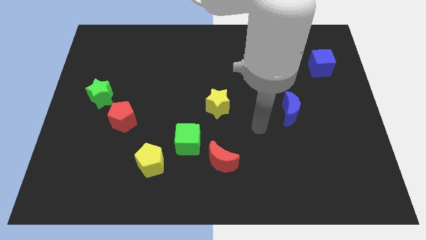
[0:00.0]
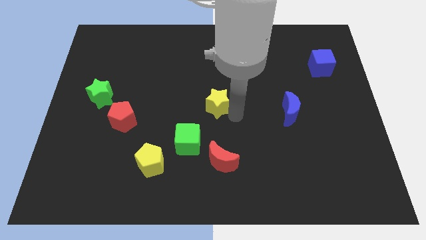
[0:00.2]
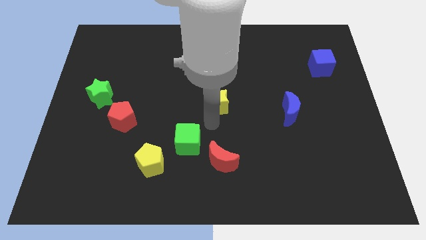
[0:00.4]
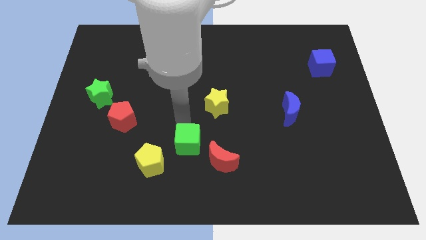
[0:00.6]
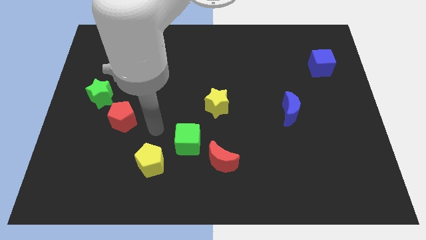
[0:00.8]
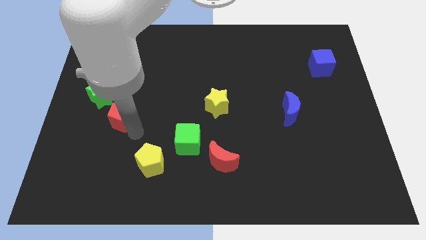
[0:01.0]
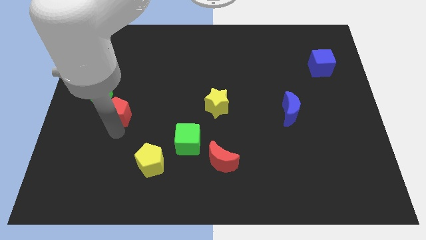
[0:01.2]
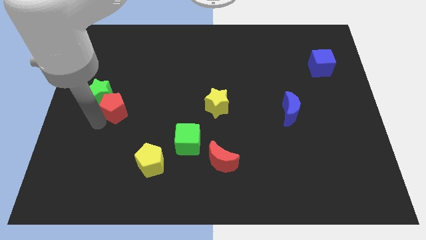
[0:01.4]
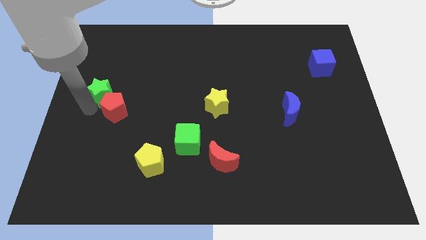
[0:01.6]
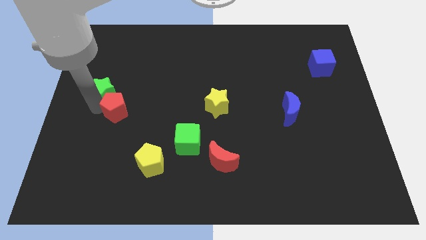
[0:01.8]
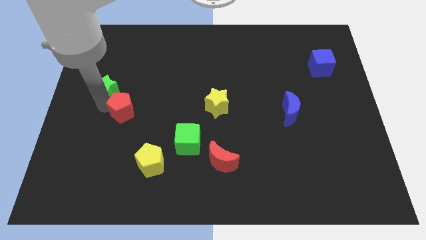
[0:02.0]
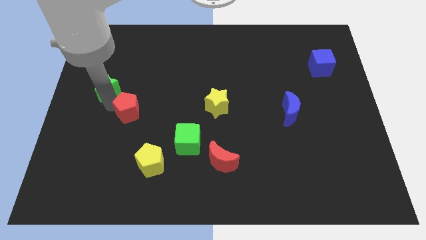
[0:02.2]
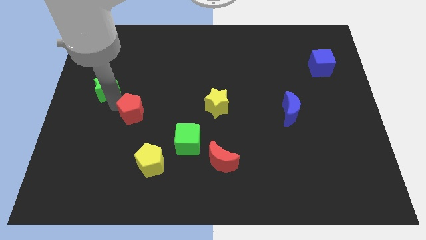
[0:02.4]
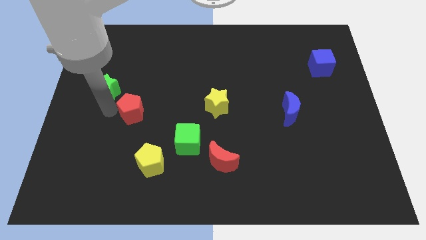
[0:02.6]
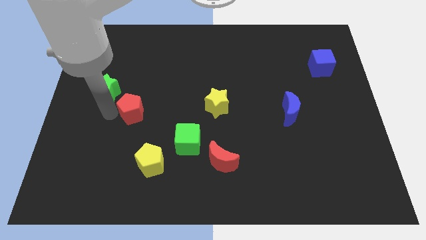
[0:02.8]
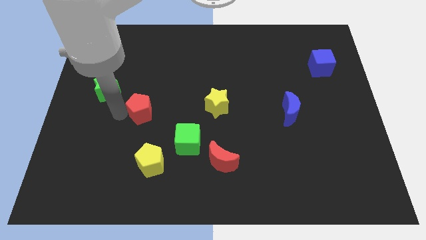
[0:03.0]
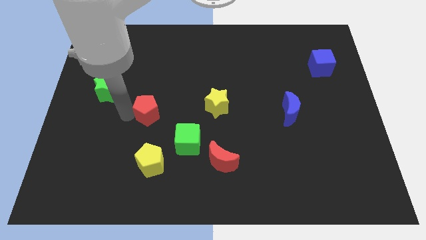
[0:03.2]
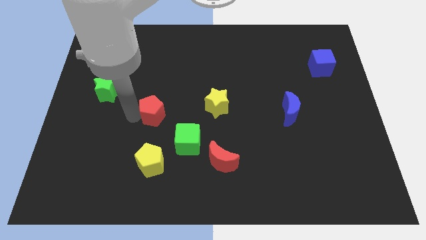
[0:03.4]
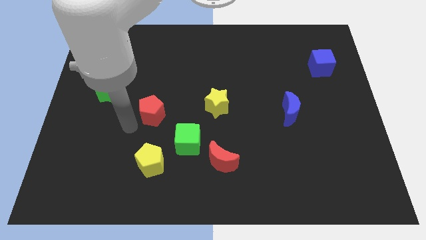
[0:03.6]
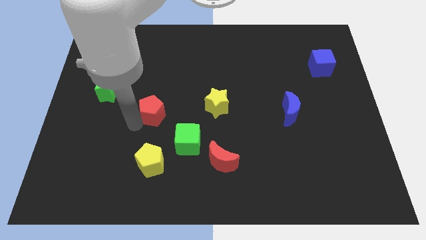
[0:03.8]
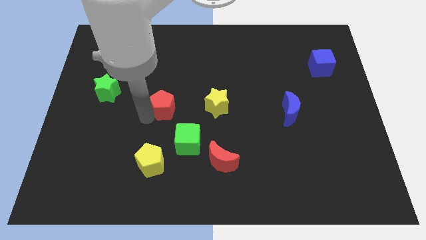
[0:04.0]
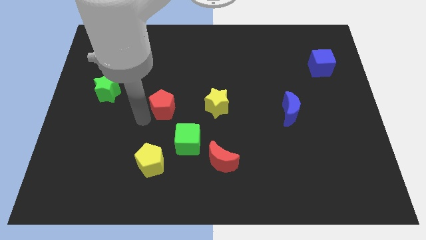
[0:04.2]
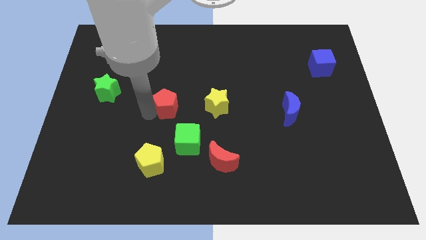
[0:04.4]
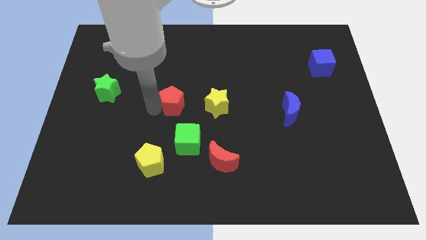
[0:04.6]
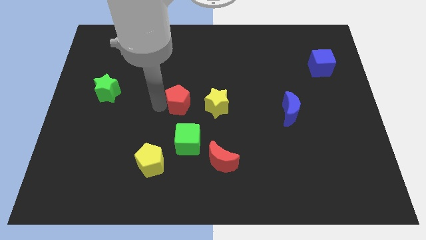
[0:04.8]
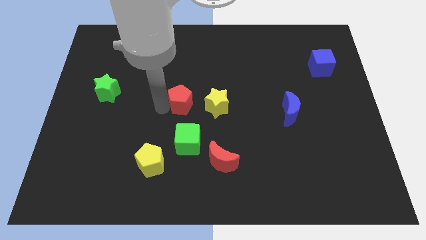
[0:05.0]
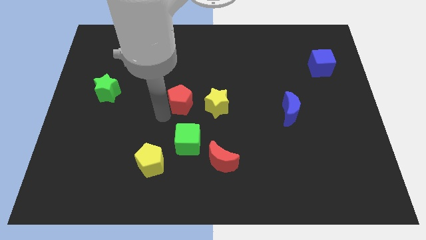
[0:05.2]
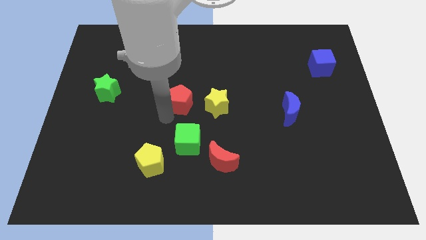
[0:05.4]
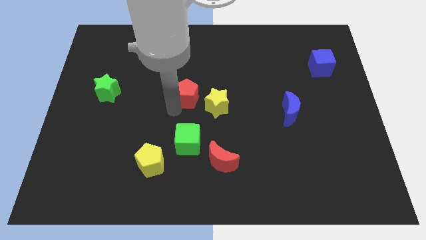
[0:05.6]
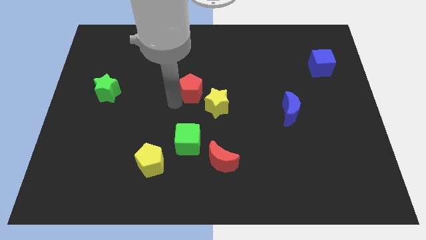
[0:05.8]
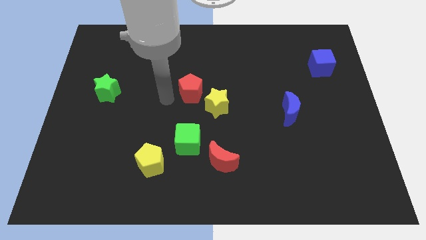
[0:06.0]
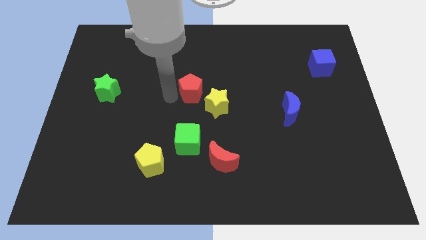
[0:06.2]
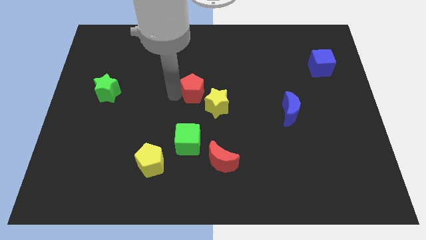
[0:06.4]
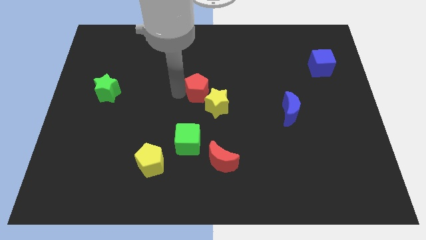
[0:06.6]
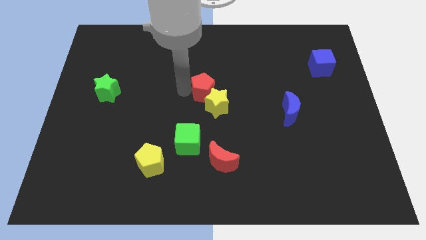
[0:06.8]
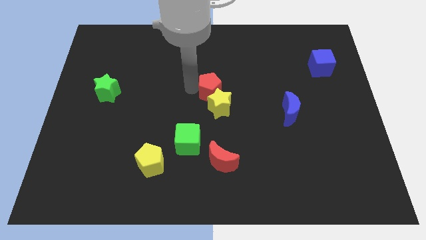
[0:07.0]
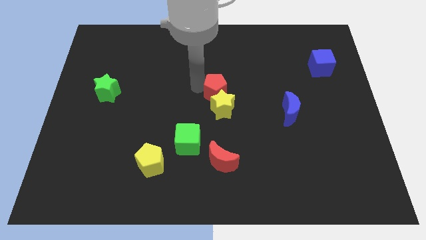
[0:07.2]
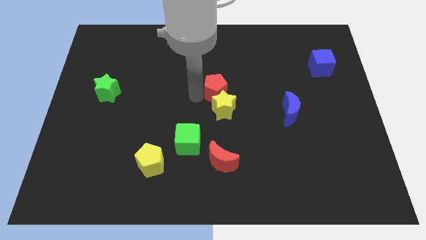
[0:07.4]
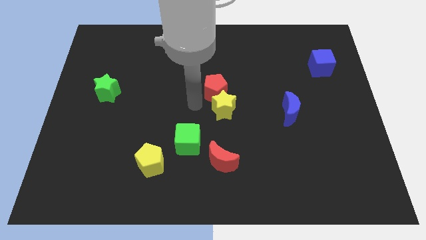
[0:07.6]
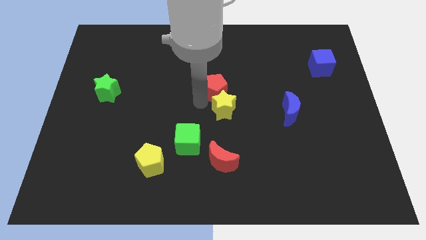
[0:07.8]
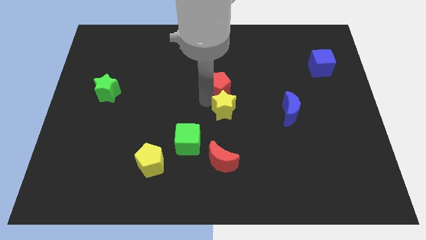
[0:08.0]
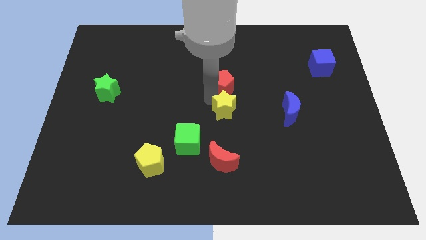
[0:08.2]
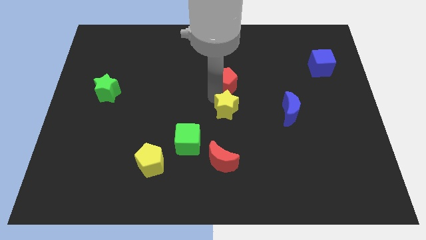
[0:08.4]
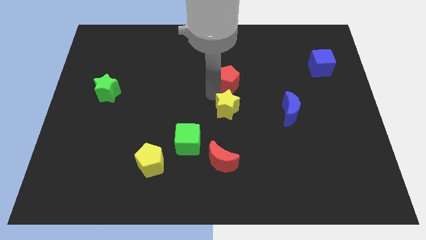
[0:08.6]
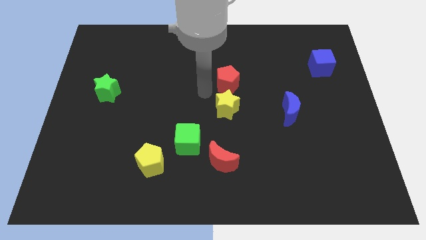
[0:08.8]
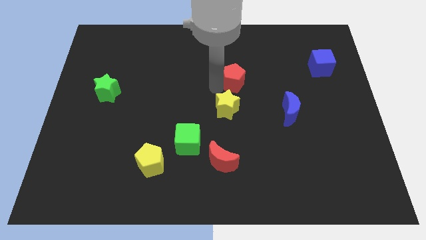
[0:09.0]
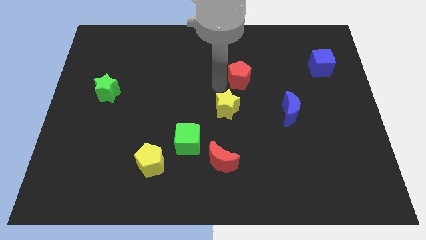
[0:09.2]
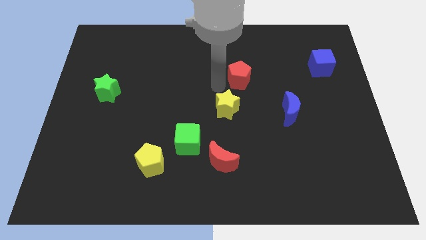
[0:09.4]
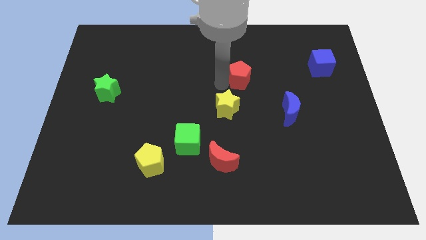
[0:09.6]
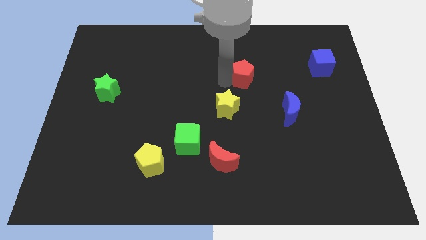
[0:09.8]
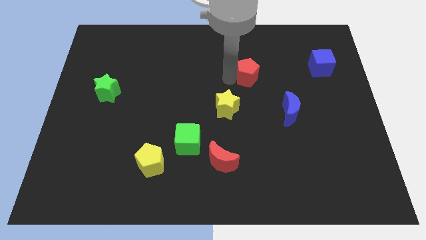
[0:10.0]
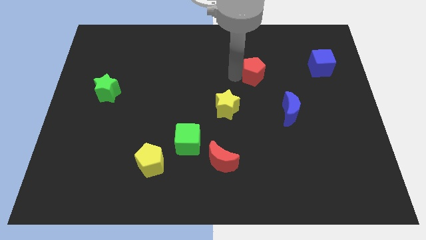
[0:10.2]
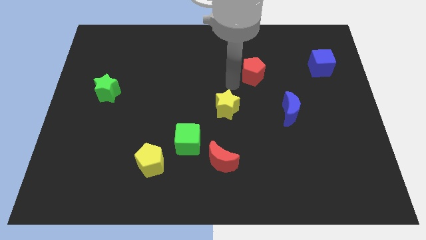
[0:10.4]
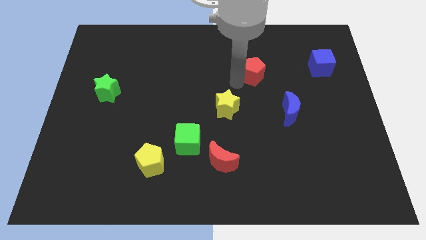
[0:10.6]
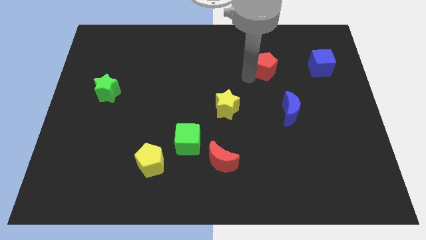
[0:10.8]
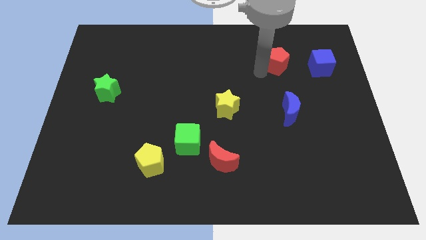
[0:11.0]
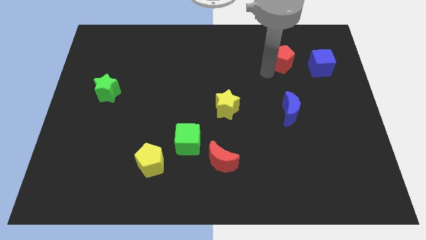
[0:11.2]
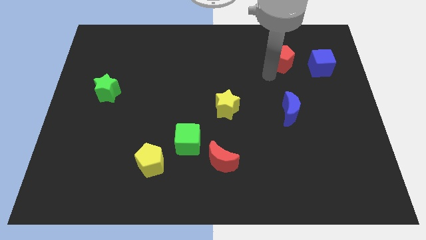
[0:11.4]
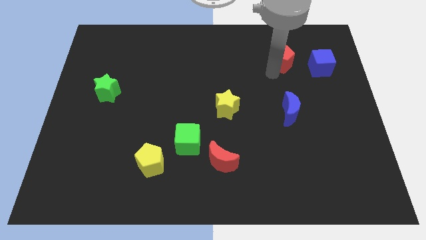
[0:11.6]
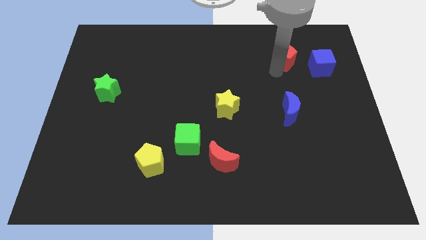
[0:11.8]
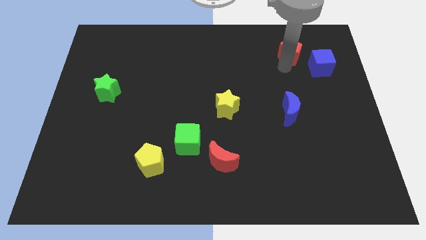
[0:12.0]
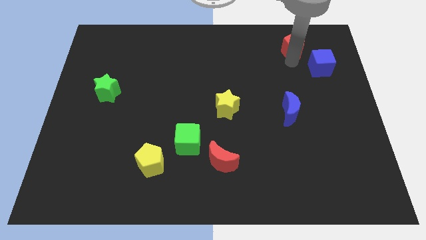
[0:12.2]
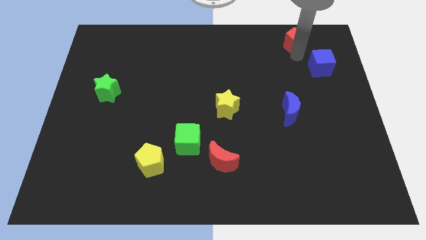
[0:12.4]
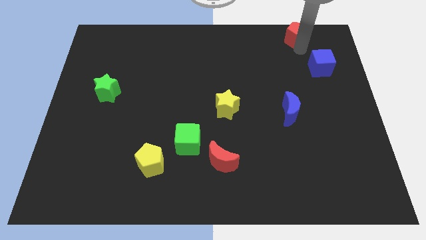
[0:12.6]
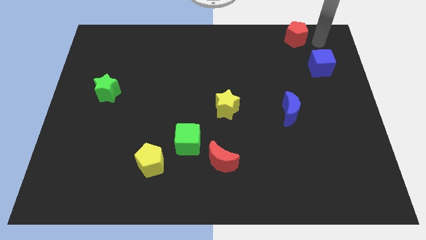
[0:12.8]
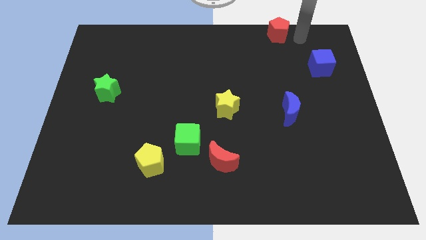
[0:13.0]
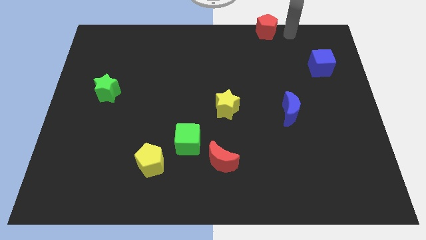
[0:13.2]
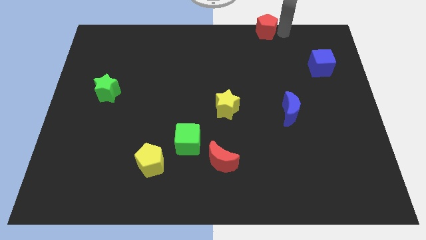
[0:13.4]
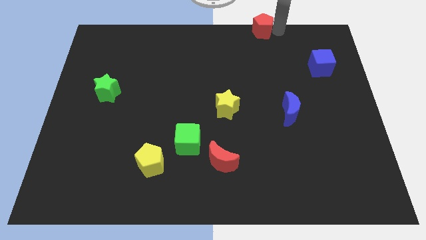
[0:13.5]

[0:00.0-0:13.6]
put the red pentagon to the towards your base

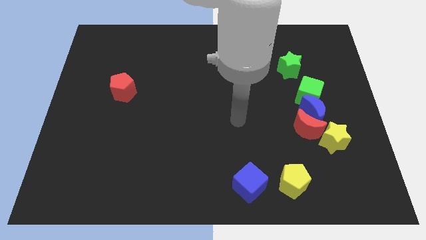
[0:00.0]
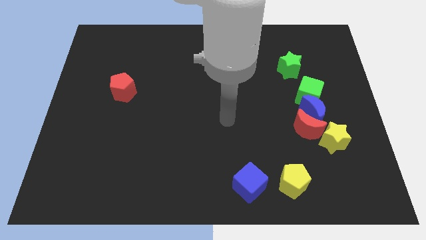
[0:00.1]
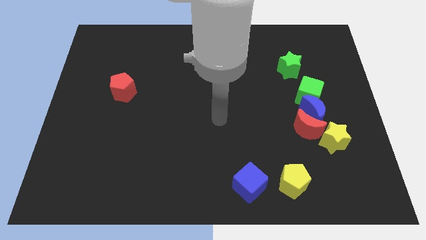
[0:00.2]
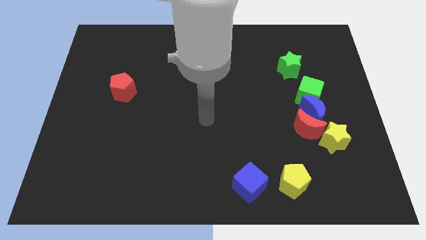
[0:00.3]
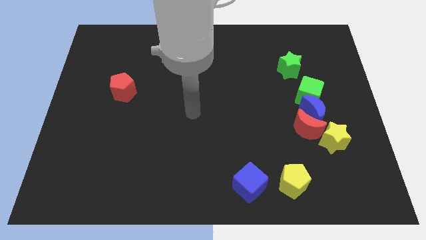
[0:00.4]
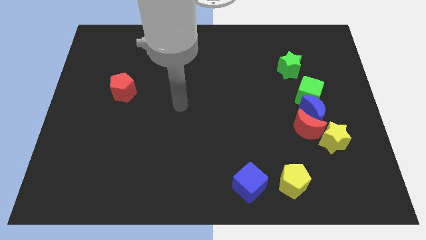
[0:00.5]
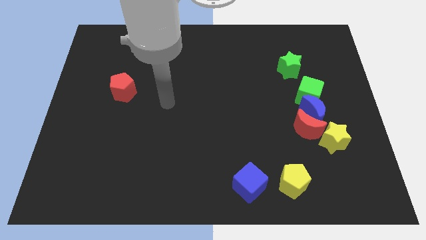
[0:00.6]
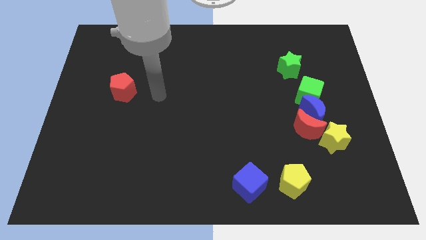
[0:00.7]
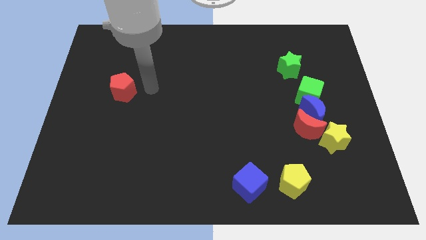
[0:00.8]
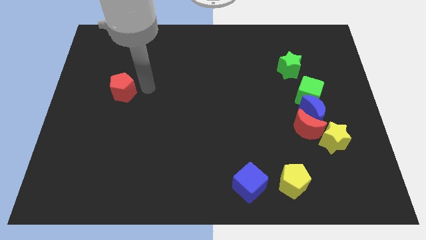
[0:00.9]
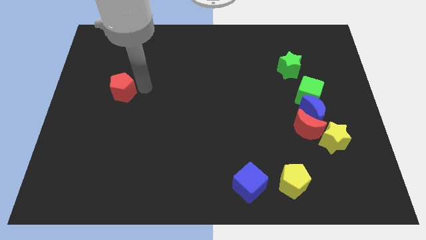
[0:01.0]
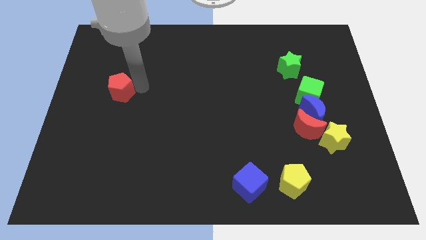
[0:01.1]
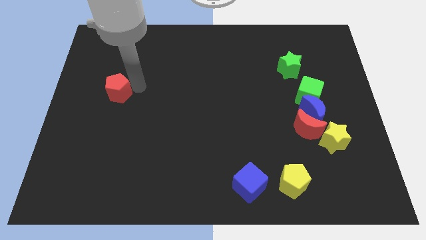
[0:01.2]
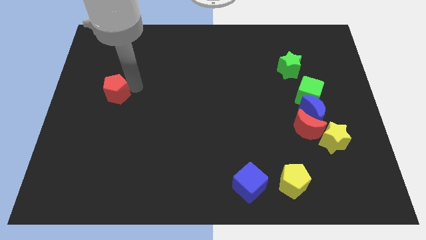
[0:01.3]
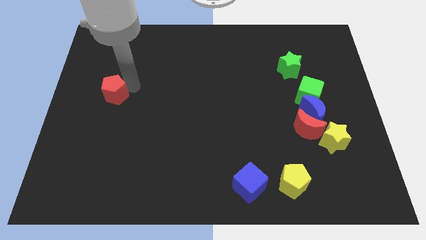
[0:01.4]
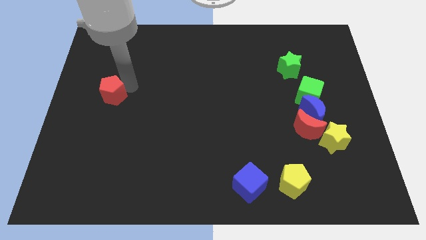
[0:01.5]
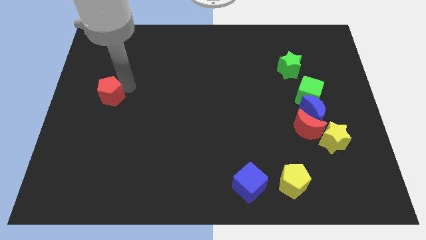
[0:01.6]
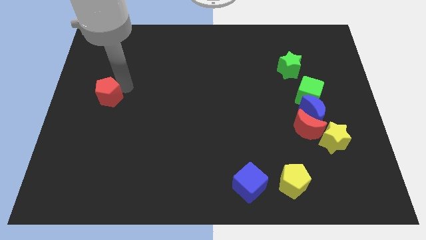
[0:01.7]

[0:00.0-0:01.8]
slide the red pentagon to the left side of the board
